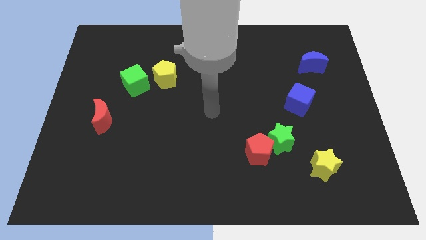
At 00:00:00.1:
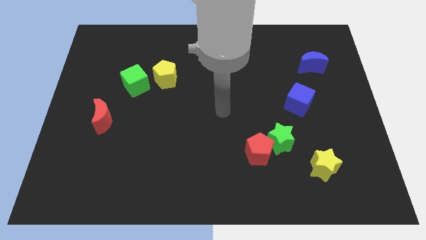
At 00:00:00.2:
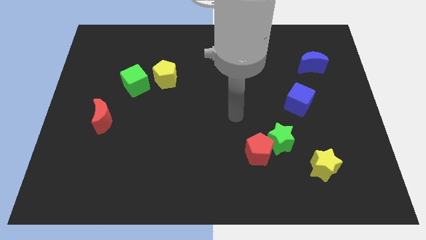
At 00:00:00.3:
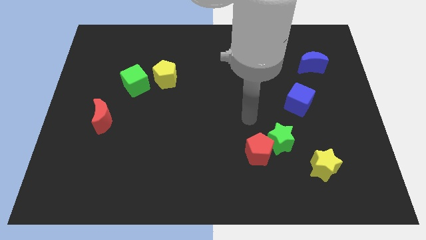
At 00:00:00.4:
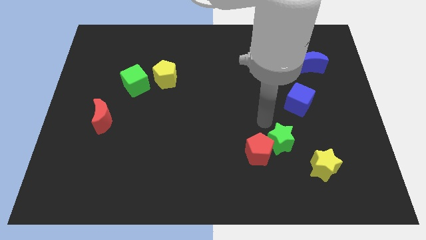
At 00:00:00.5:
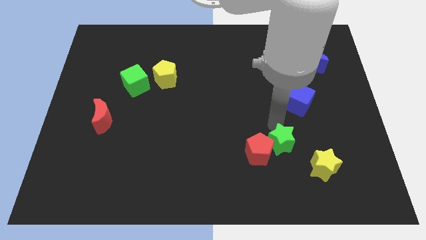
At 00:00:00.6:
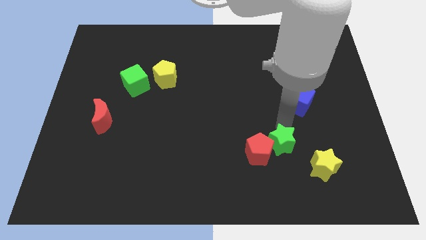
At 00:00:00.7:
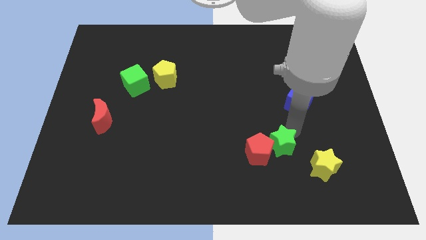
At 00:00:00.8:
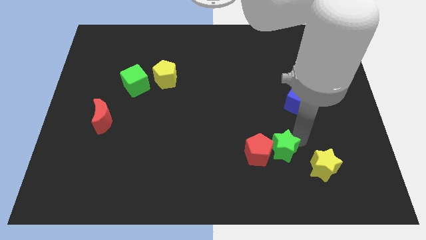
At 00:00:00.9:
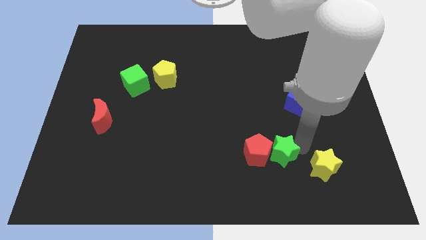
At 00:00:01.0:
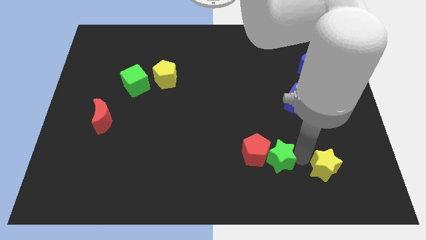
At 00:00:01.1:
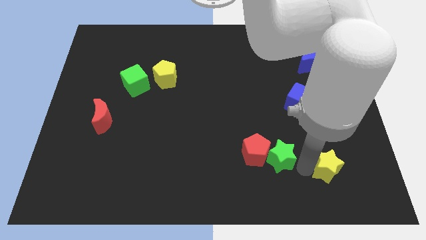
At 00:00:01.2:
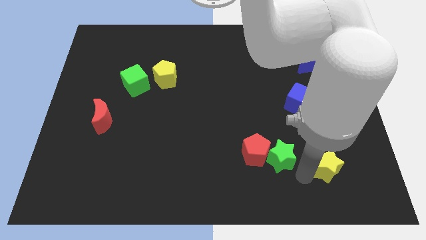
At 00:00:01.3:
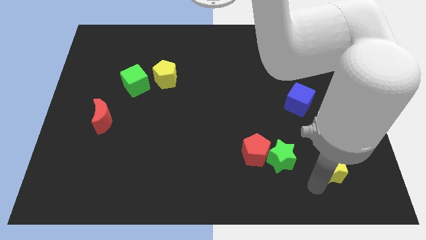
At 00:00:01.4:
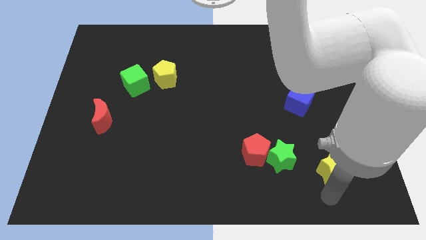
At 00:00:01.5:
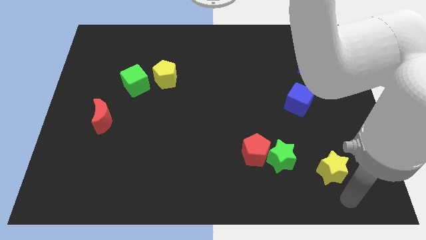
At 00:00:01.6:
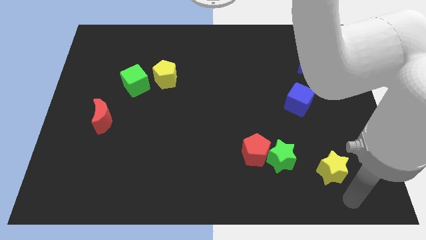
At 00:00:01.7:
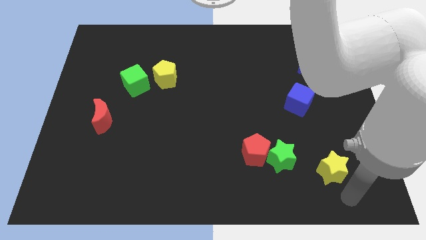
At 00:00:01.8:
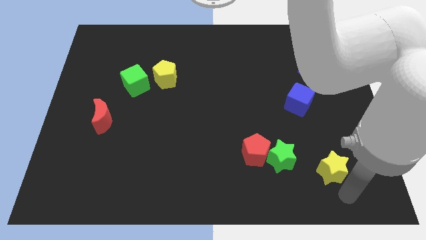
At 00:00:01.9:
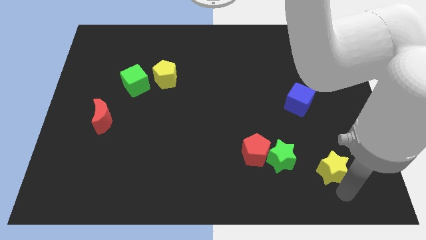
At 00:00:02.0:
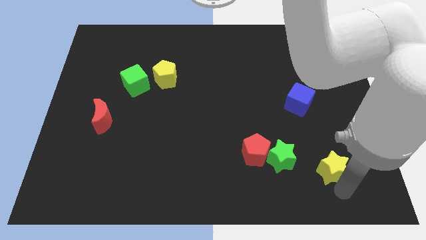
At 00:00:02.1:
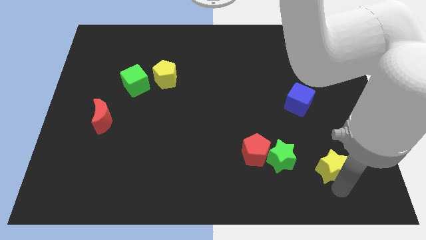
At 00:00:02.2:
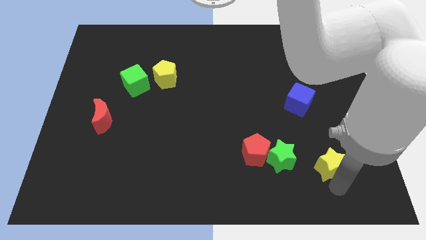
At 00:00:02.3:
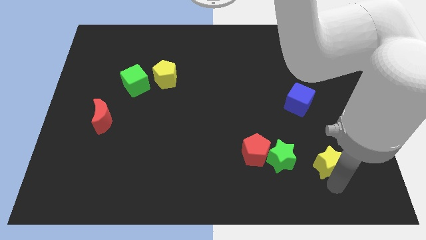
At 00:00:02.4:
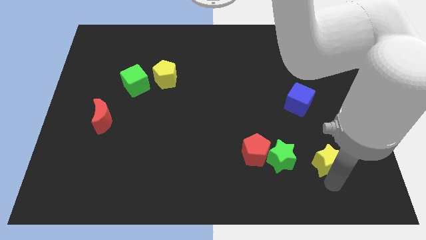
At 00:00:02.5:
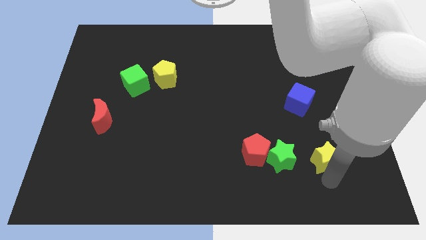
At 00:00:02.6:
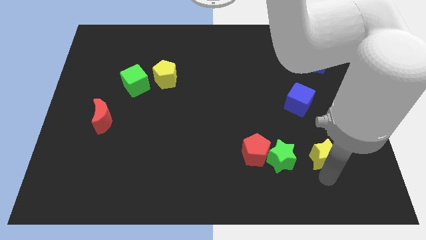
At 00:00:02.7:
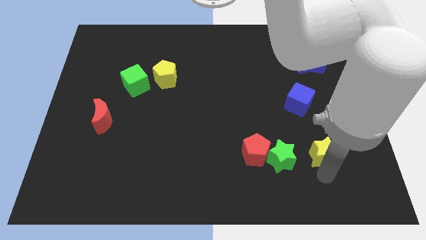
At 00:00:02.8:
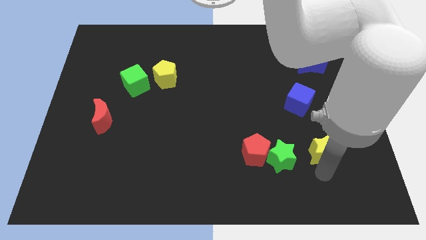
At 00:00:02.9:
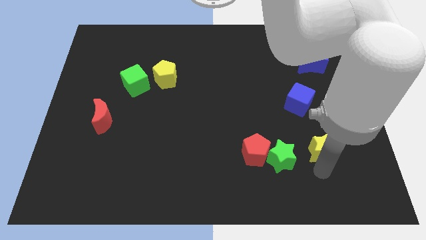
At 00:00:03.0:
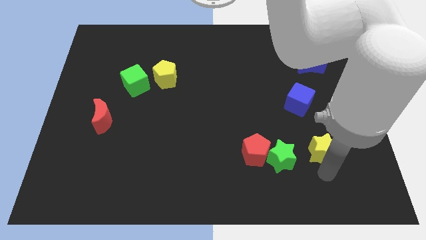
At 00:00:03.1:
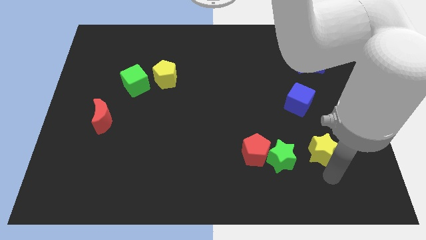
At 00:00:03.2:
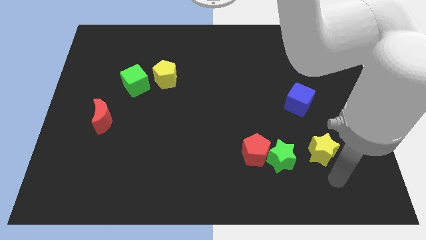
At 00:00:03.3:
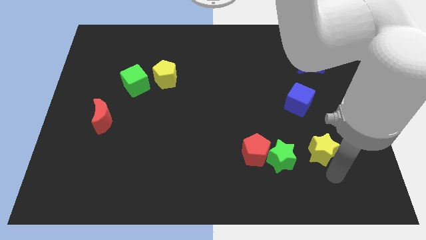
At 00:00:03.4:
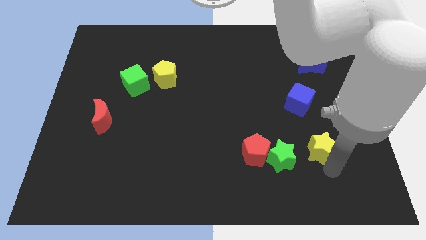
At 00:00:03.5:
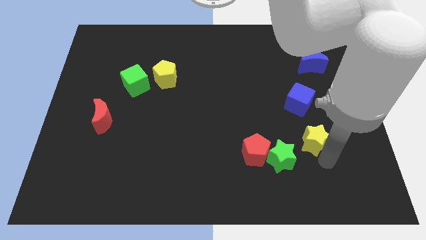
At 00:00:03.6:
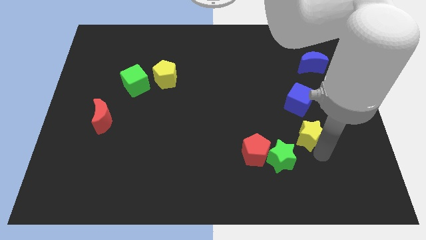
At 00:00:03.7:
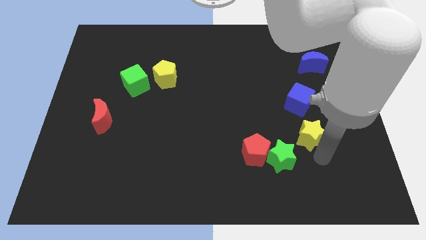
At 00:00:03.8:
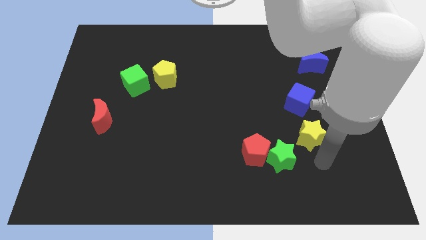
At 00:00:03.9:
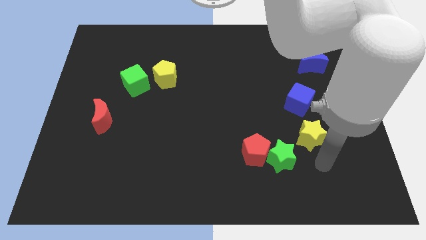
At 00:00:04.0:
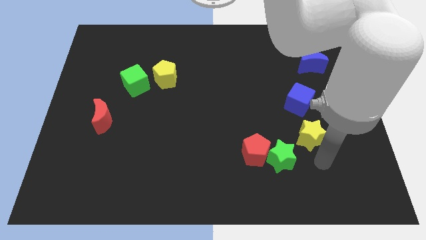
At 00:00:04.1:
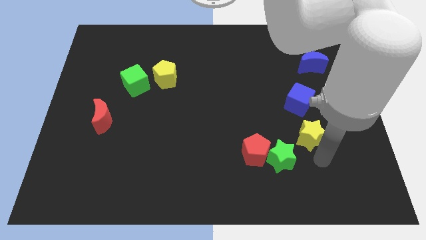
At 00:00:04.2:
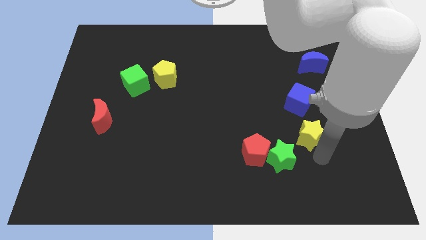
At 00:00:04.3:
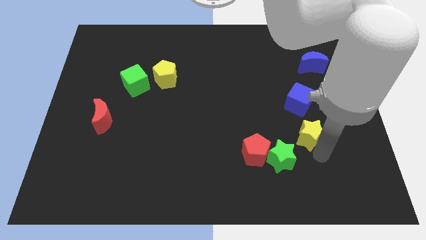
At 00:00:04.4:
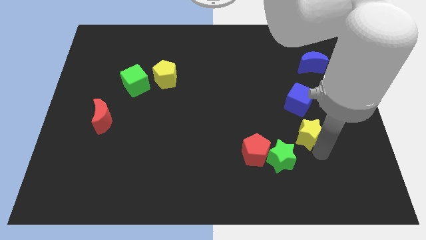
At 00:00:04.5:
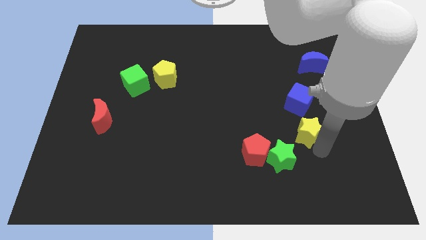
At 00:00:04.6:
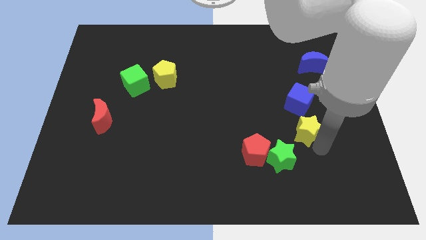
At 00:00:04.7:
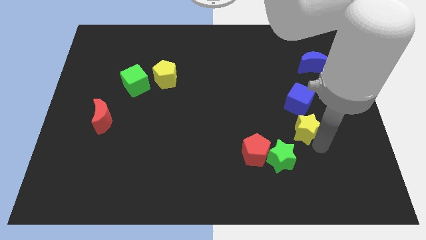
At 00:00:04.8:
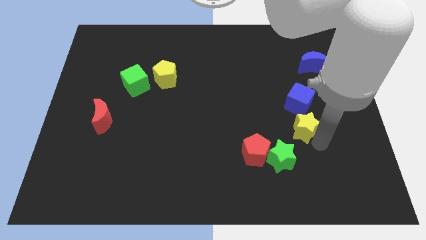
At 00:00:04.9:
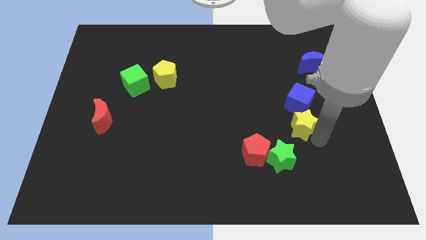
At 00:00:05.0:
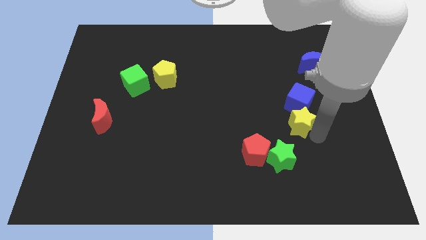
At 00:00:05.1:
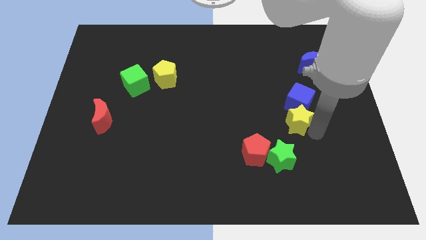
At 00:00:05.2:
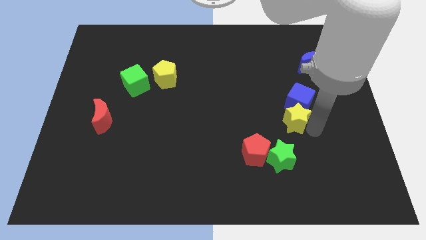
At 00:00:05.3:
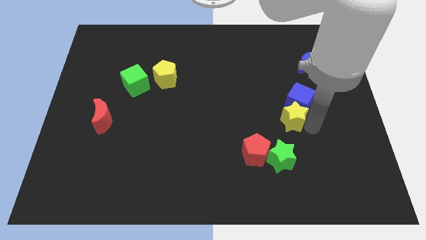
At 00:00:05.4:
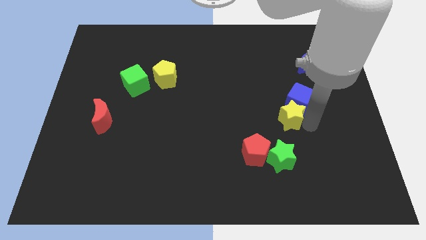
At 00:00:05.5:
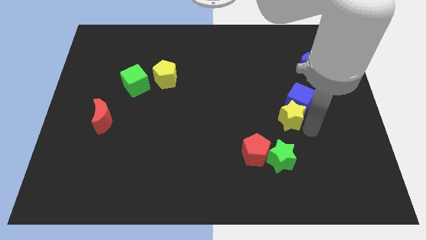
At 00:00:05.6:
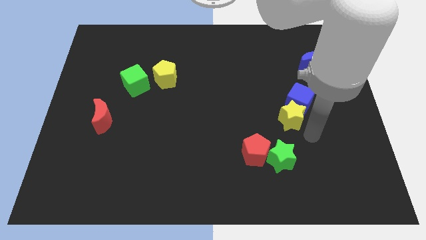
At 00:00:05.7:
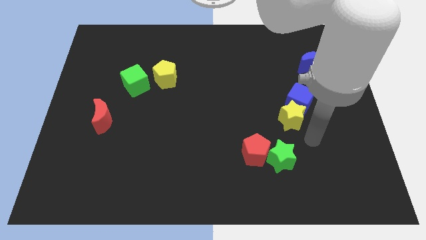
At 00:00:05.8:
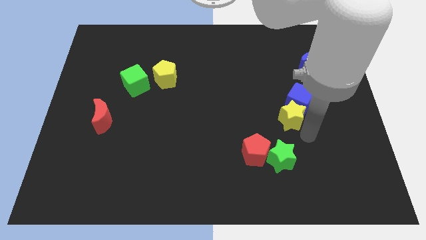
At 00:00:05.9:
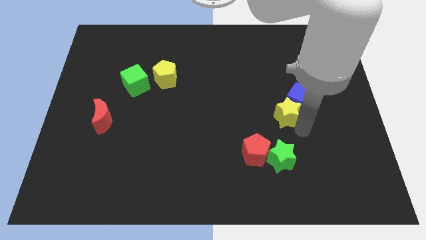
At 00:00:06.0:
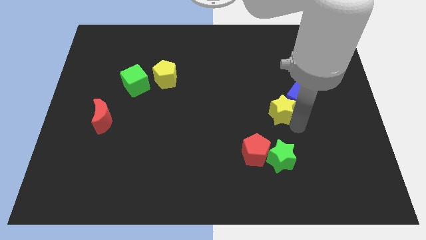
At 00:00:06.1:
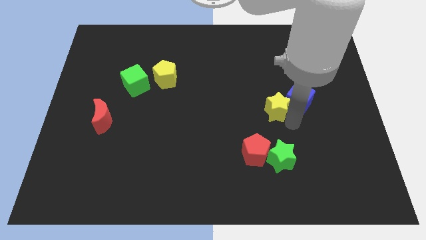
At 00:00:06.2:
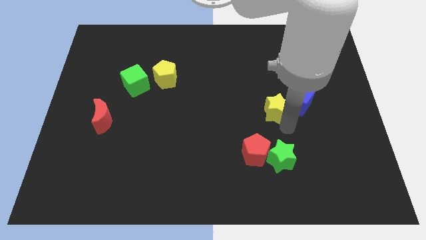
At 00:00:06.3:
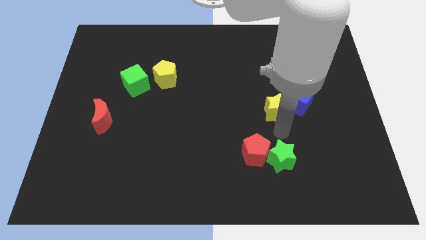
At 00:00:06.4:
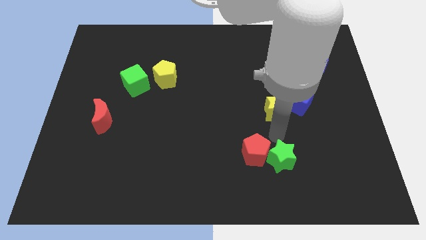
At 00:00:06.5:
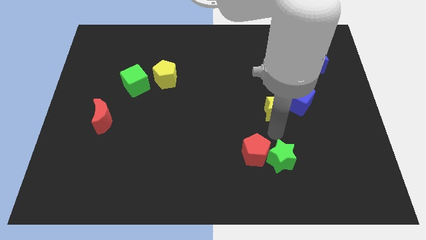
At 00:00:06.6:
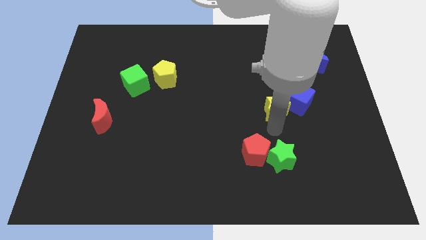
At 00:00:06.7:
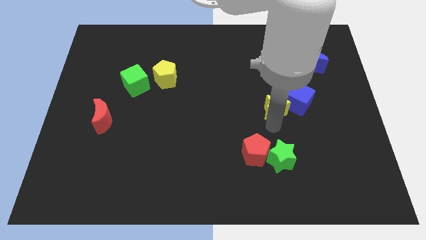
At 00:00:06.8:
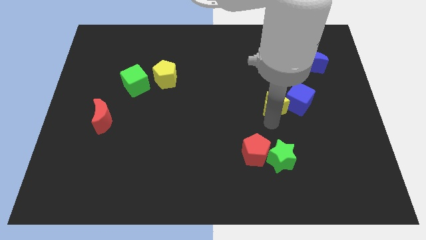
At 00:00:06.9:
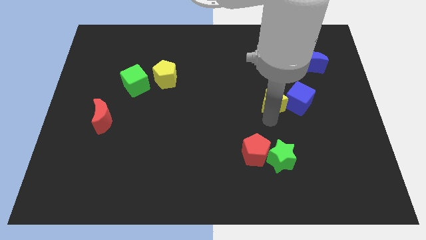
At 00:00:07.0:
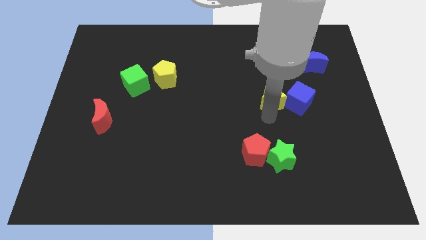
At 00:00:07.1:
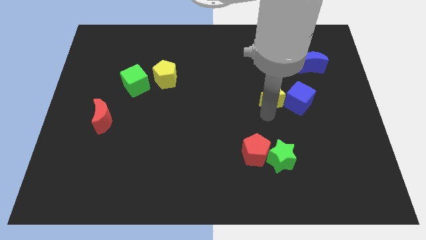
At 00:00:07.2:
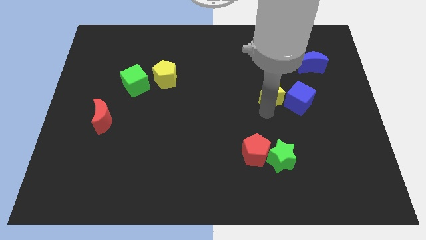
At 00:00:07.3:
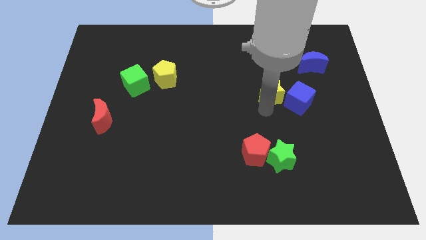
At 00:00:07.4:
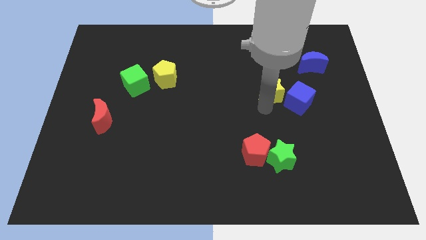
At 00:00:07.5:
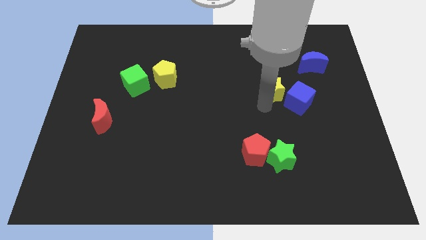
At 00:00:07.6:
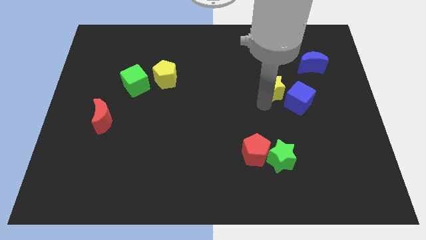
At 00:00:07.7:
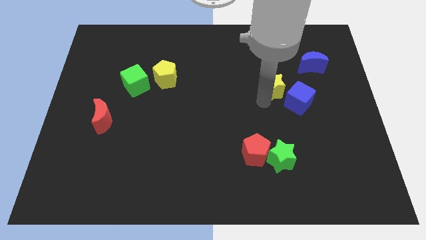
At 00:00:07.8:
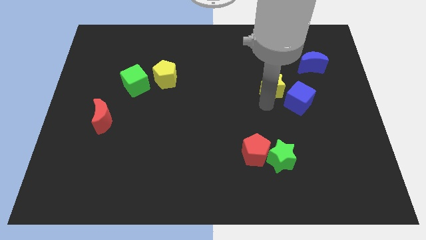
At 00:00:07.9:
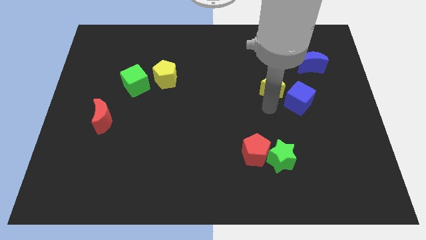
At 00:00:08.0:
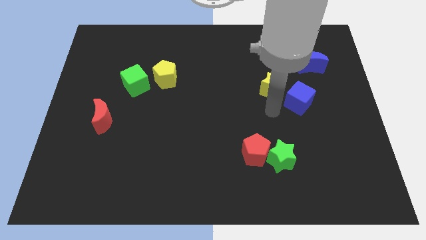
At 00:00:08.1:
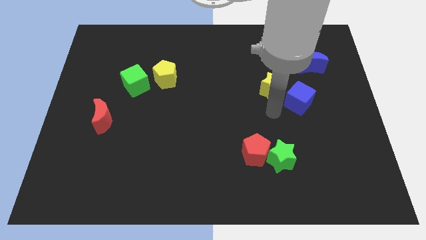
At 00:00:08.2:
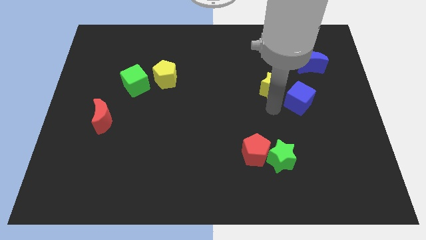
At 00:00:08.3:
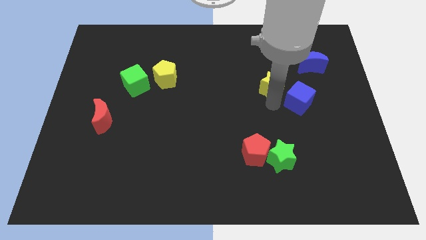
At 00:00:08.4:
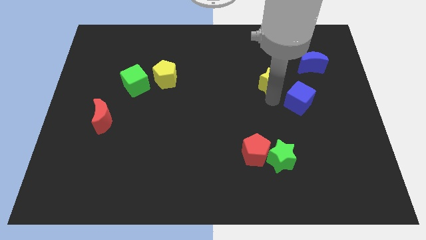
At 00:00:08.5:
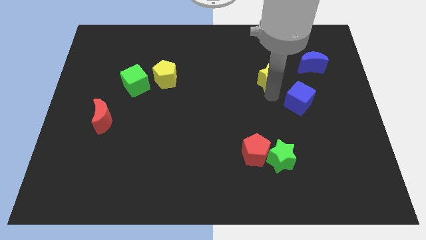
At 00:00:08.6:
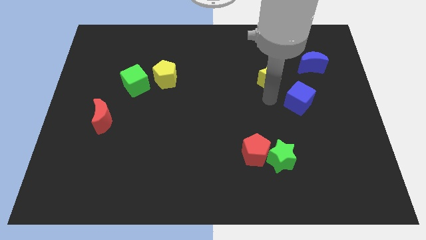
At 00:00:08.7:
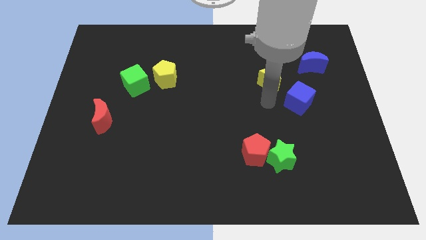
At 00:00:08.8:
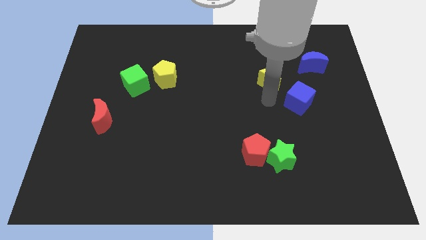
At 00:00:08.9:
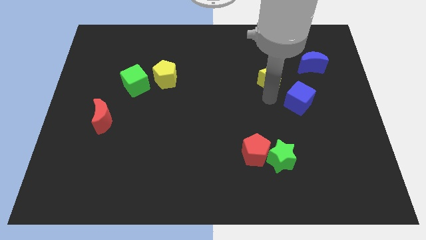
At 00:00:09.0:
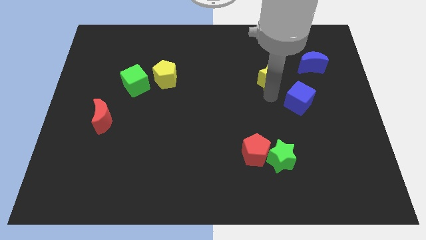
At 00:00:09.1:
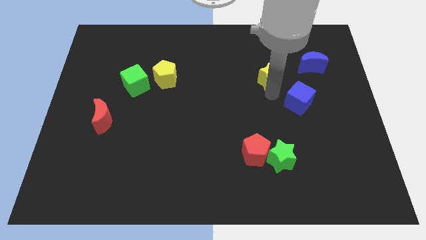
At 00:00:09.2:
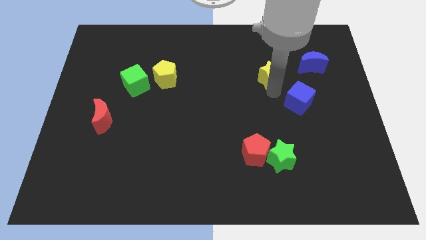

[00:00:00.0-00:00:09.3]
put the yellow star left of the blue moon
